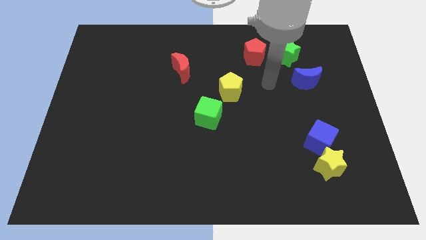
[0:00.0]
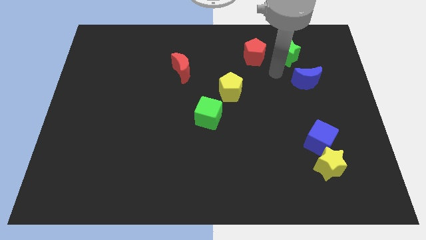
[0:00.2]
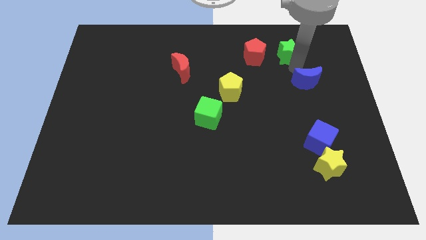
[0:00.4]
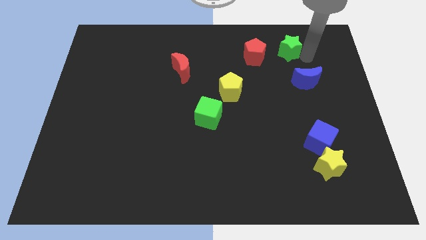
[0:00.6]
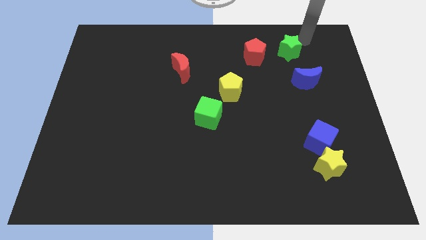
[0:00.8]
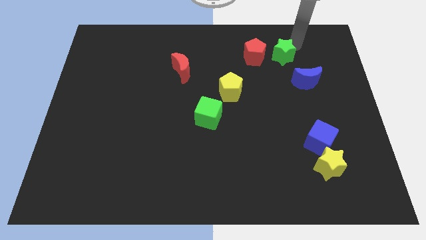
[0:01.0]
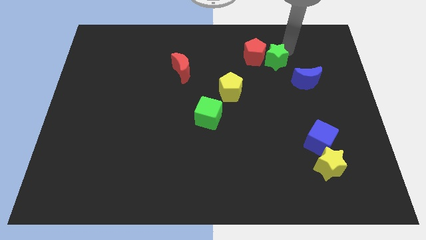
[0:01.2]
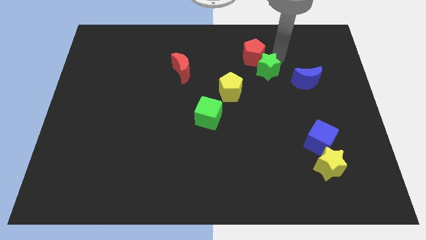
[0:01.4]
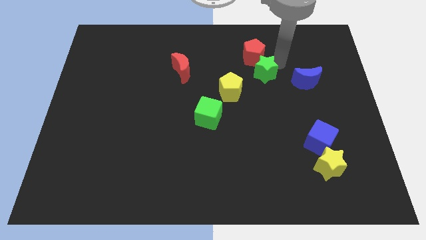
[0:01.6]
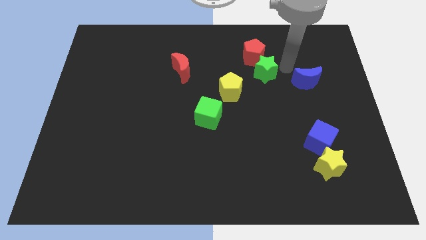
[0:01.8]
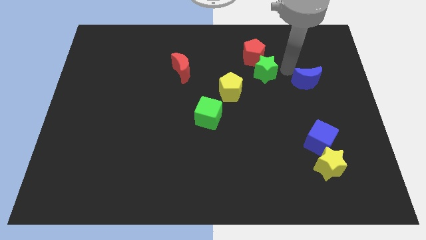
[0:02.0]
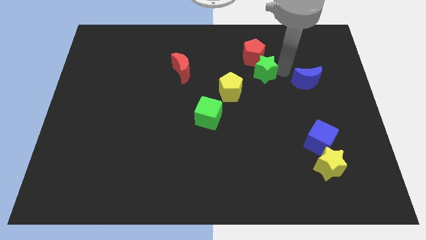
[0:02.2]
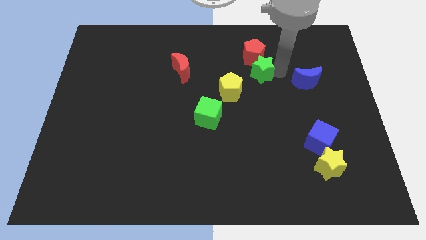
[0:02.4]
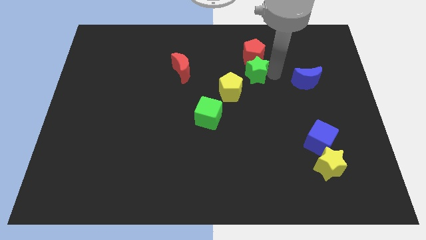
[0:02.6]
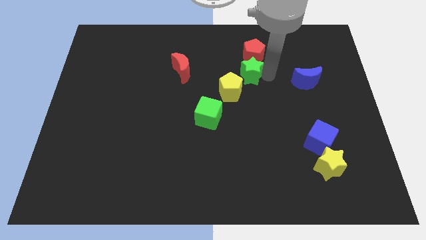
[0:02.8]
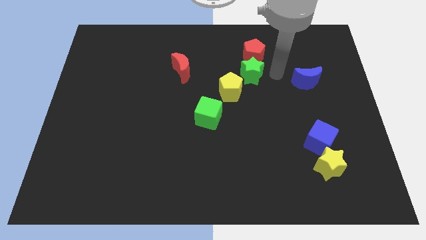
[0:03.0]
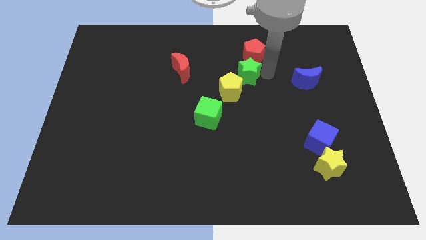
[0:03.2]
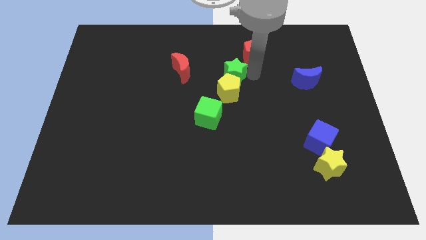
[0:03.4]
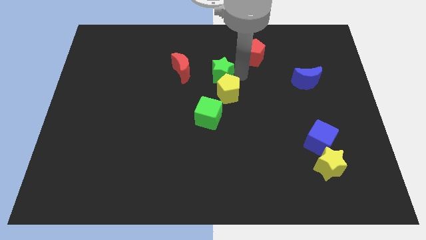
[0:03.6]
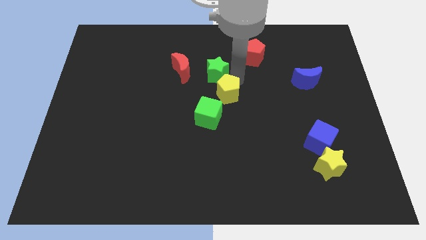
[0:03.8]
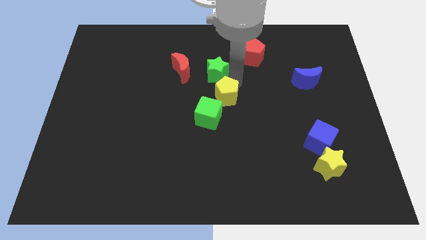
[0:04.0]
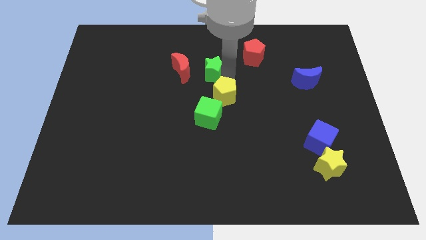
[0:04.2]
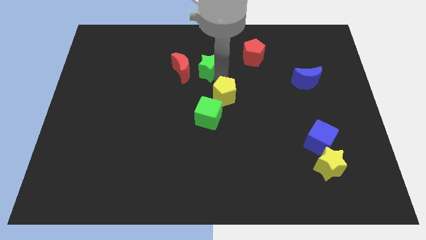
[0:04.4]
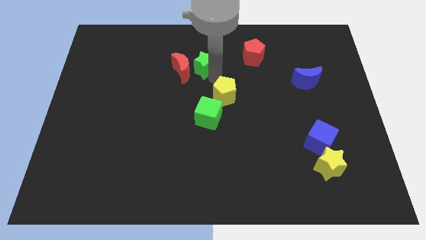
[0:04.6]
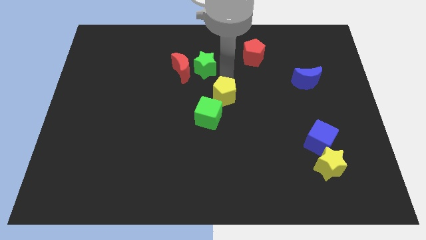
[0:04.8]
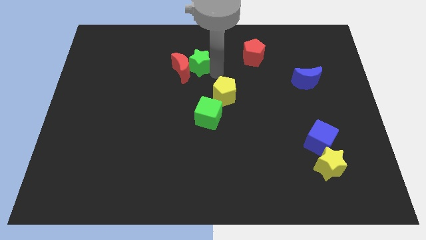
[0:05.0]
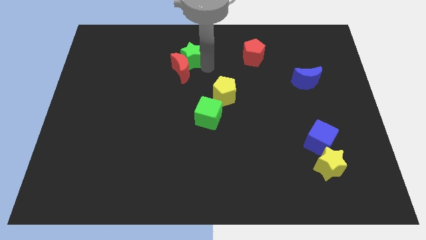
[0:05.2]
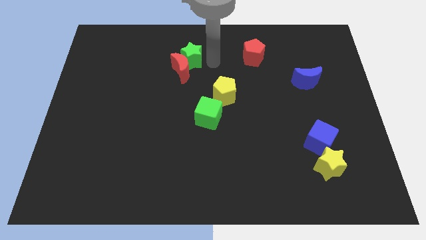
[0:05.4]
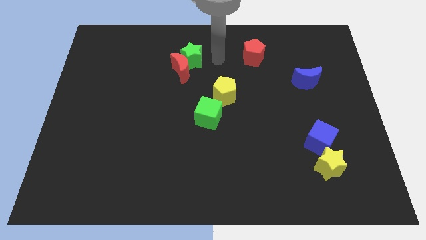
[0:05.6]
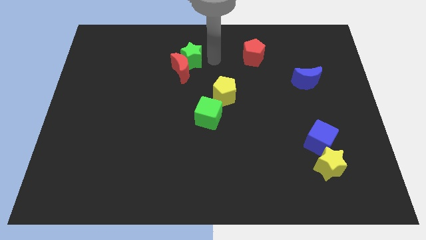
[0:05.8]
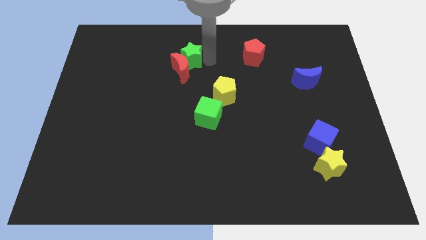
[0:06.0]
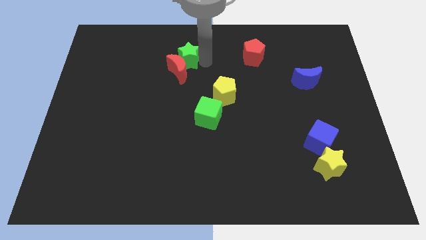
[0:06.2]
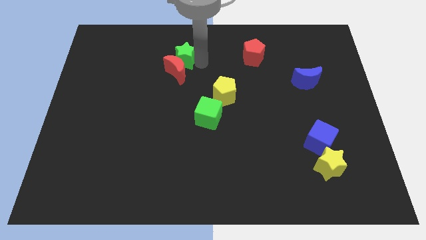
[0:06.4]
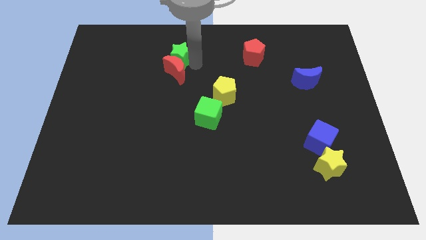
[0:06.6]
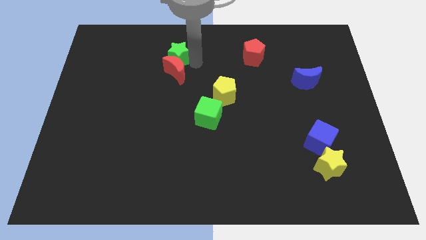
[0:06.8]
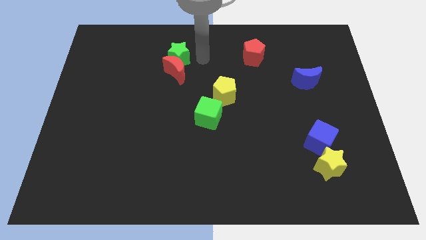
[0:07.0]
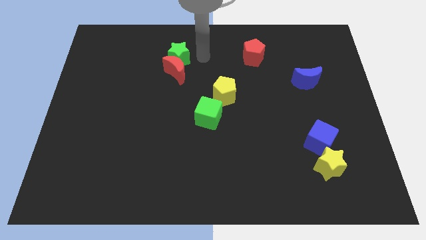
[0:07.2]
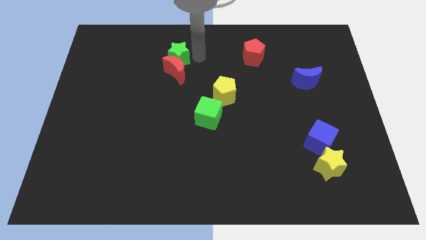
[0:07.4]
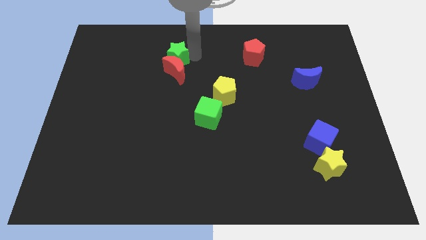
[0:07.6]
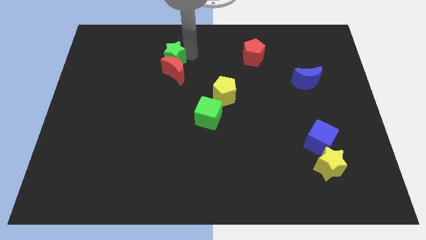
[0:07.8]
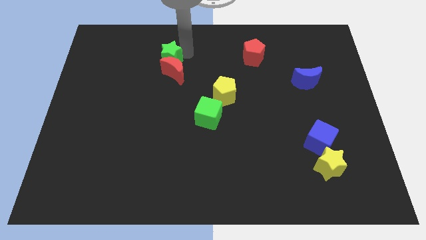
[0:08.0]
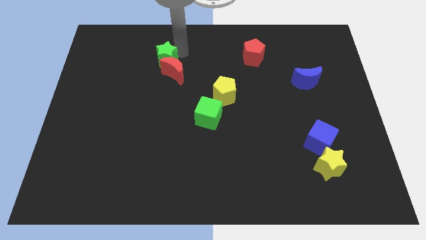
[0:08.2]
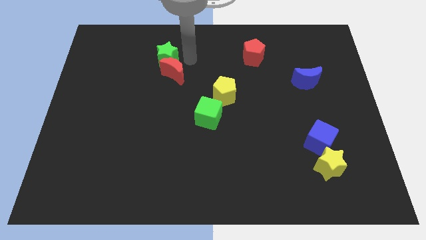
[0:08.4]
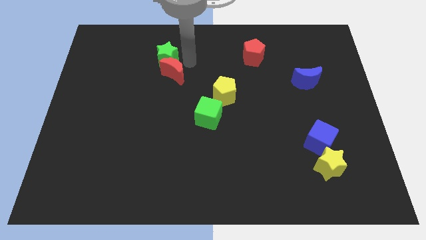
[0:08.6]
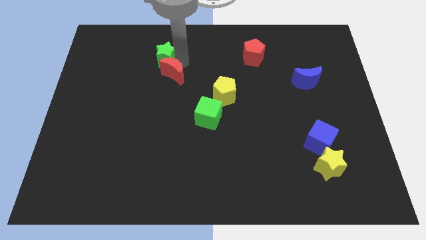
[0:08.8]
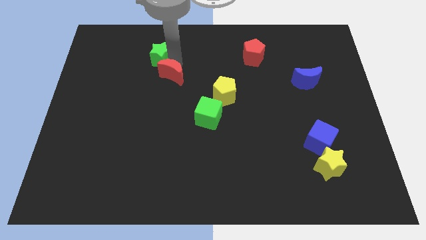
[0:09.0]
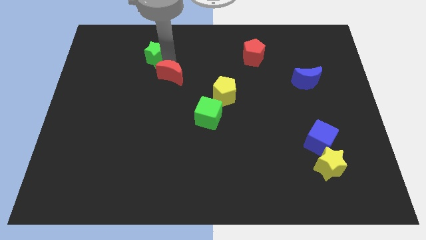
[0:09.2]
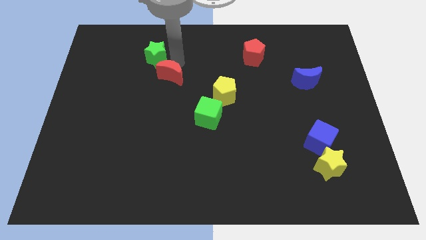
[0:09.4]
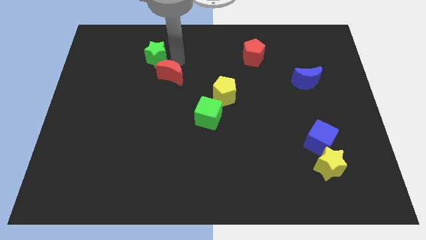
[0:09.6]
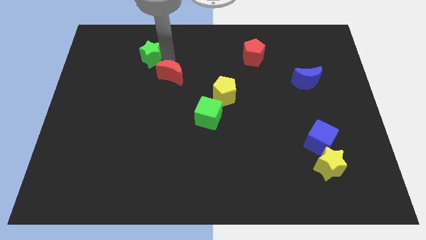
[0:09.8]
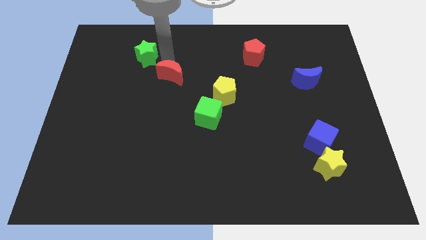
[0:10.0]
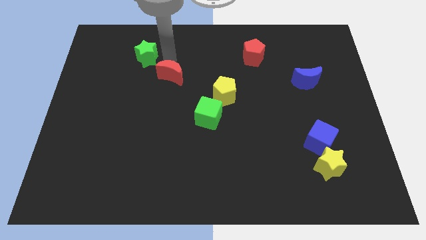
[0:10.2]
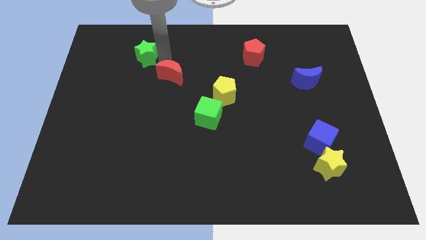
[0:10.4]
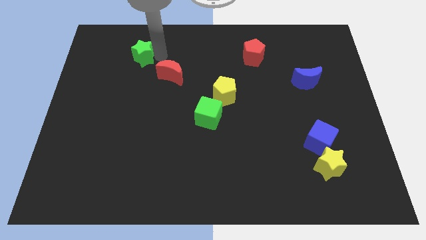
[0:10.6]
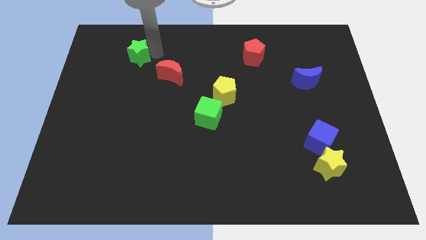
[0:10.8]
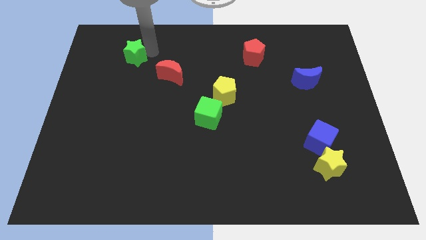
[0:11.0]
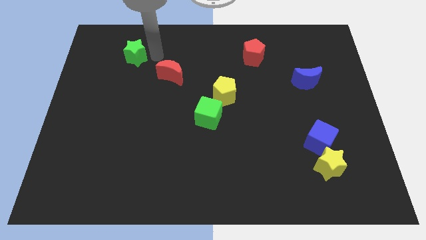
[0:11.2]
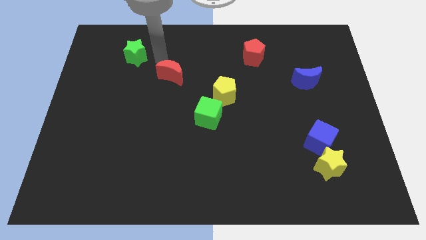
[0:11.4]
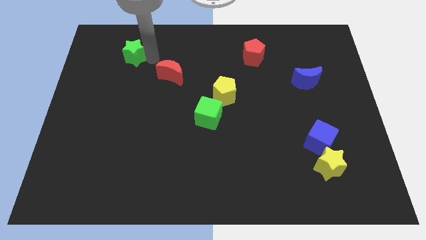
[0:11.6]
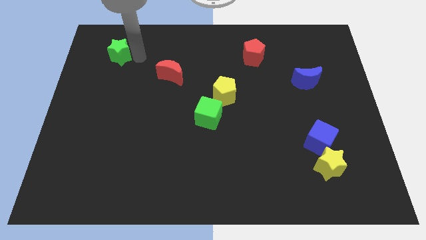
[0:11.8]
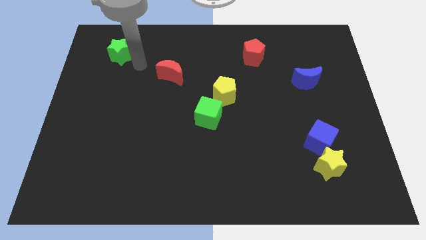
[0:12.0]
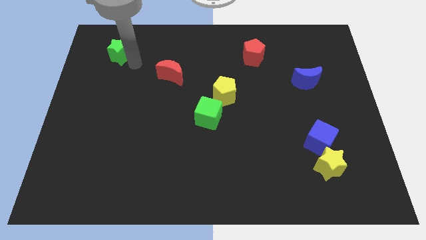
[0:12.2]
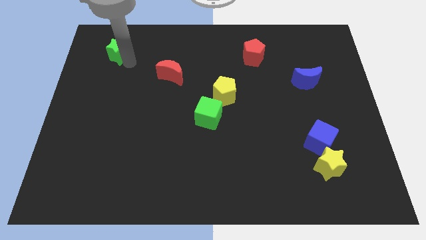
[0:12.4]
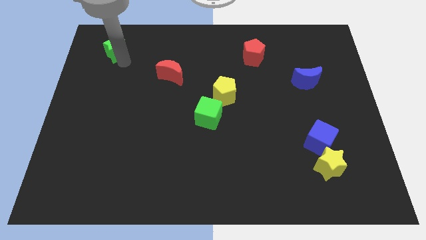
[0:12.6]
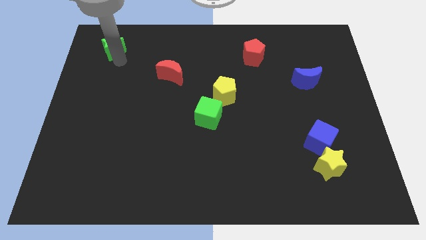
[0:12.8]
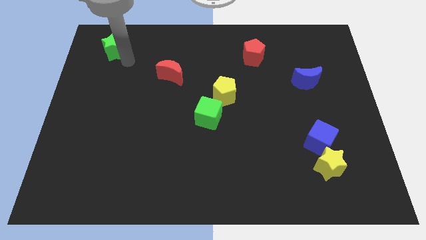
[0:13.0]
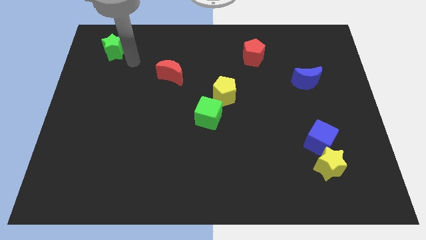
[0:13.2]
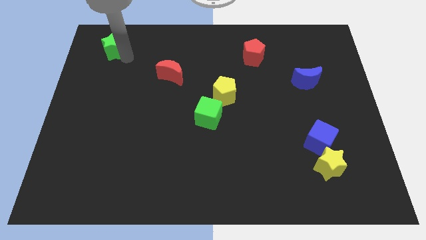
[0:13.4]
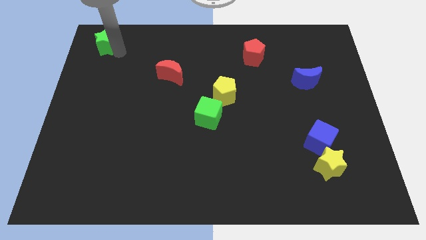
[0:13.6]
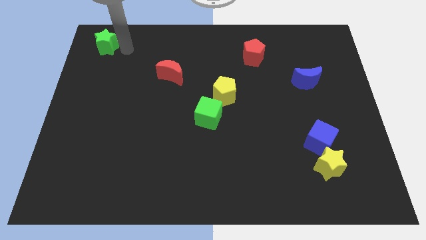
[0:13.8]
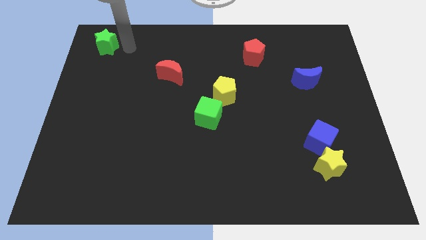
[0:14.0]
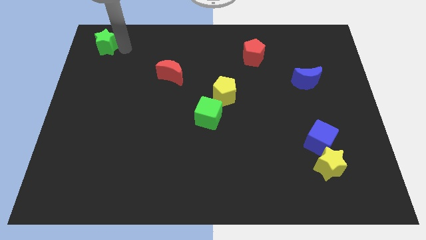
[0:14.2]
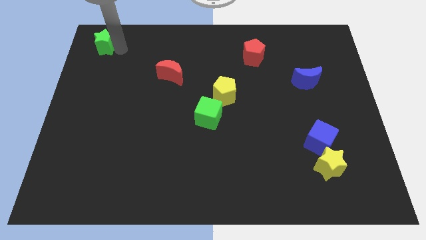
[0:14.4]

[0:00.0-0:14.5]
slide the green star to the top left
